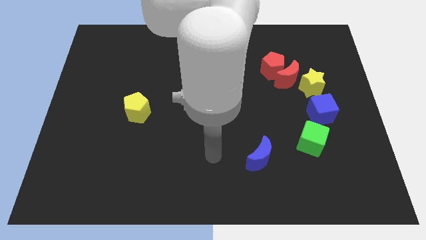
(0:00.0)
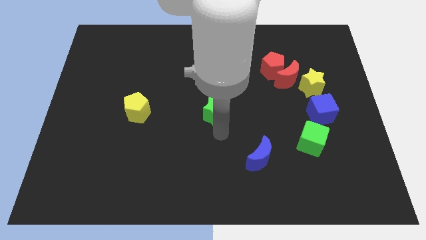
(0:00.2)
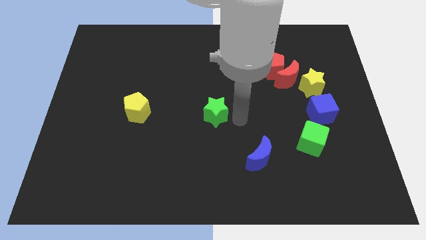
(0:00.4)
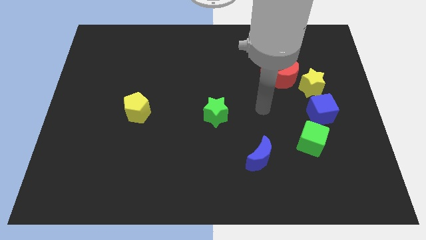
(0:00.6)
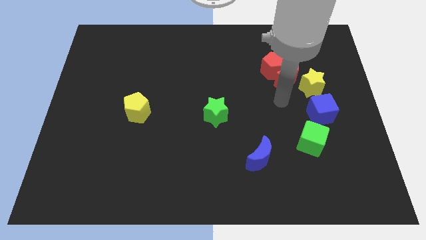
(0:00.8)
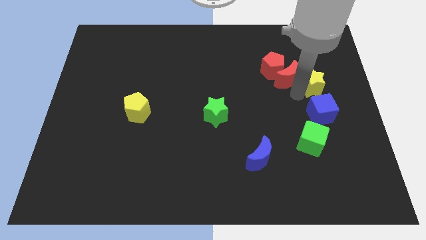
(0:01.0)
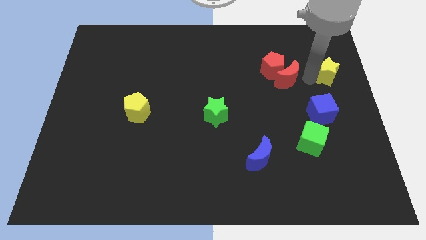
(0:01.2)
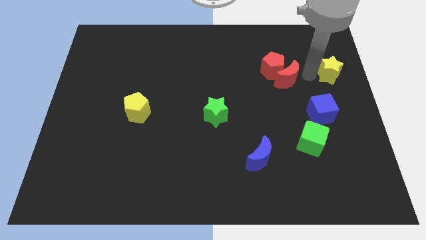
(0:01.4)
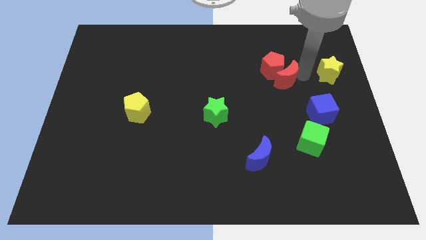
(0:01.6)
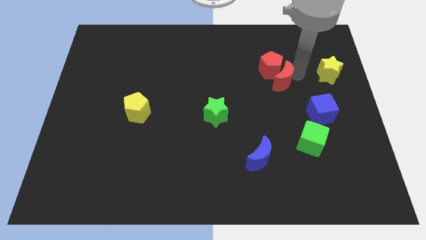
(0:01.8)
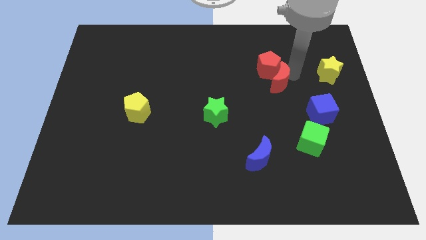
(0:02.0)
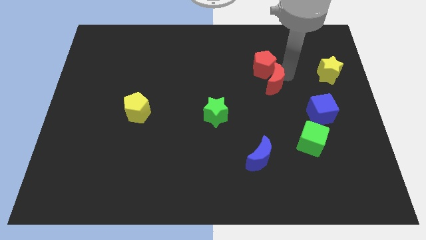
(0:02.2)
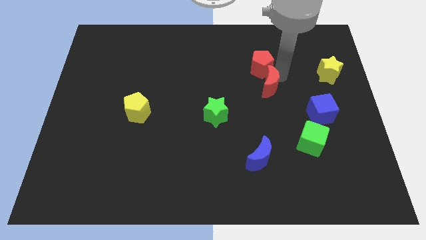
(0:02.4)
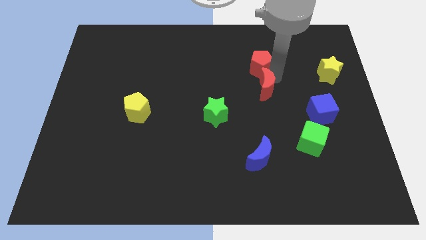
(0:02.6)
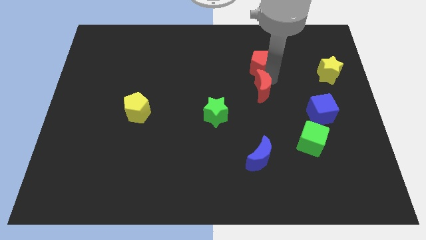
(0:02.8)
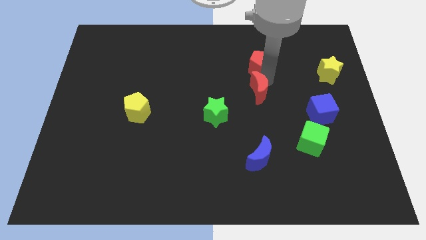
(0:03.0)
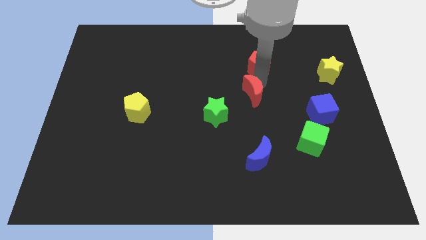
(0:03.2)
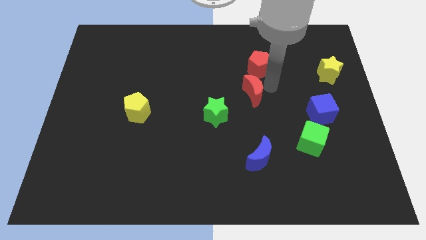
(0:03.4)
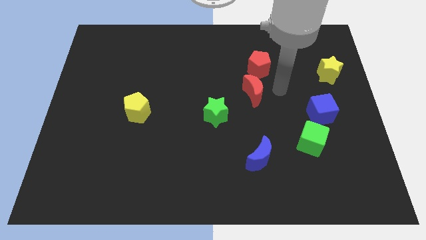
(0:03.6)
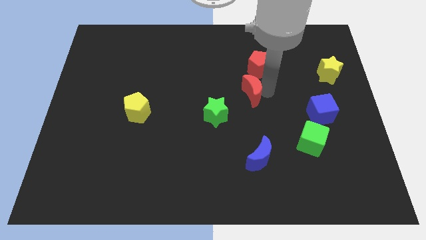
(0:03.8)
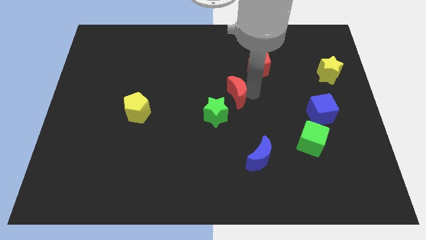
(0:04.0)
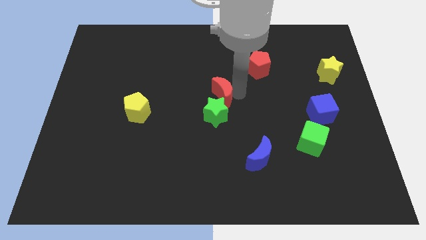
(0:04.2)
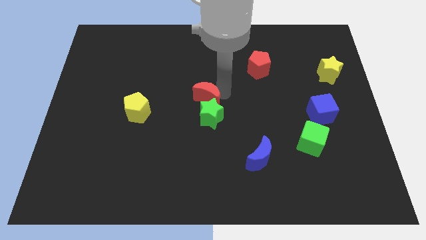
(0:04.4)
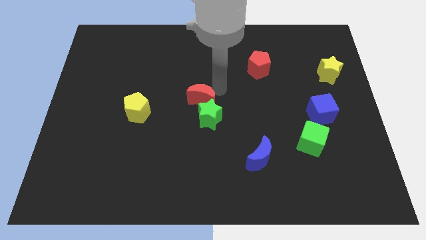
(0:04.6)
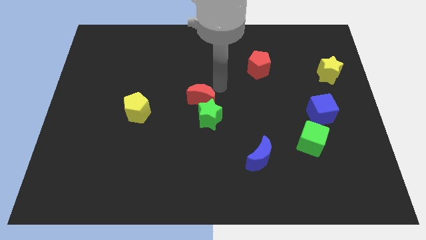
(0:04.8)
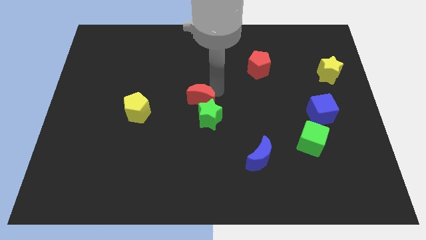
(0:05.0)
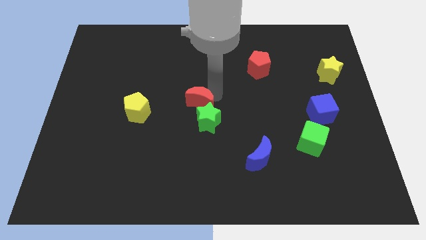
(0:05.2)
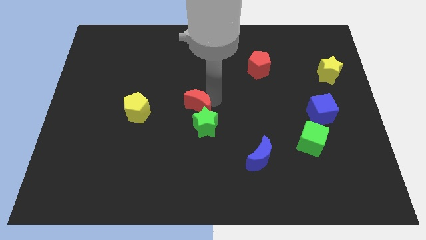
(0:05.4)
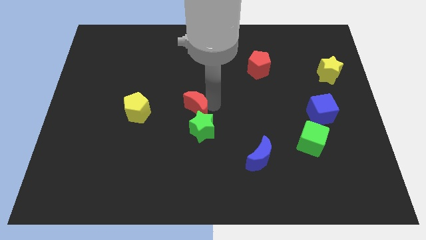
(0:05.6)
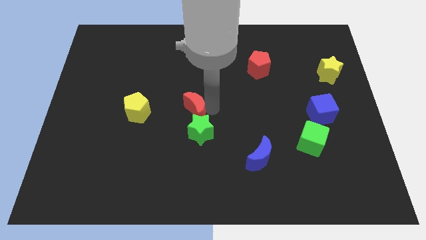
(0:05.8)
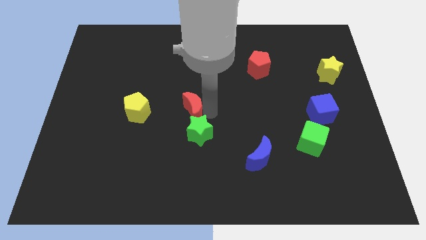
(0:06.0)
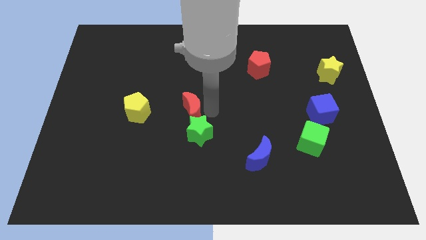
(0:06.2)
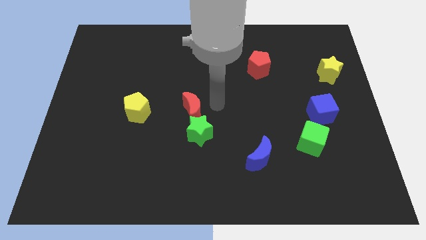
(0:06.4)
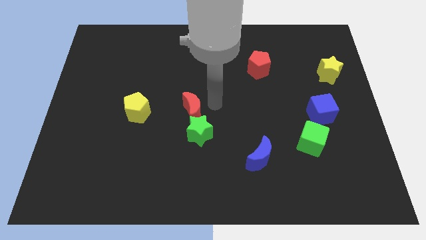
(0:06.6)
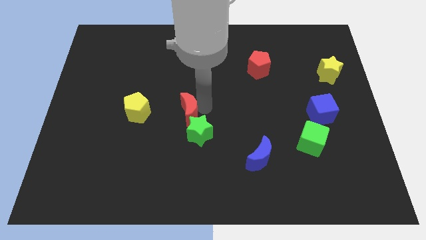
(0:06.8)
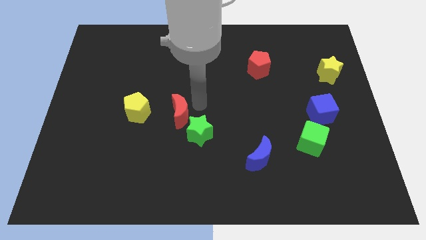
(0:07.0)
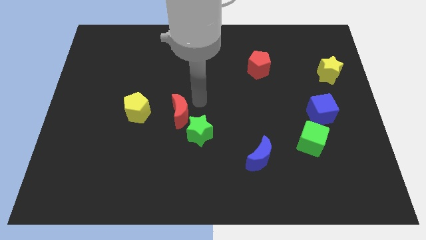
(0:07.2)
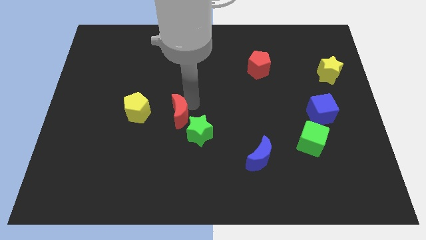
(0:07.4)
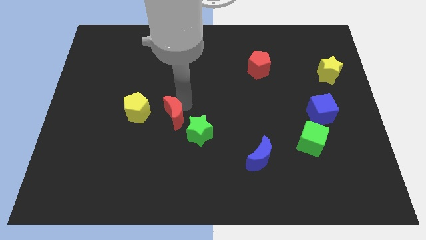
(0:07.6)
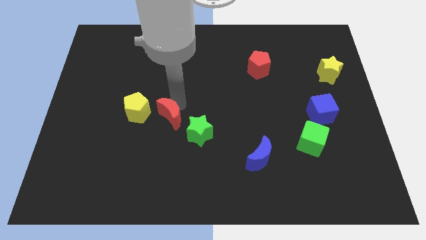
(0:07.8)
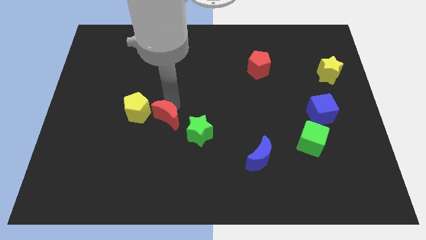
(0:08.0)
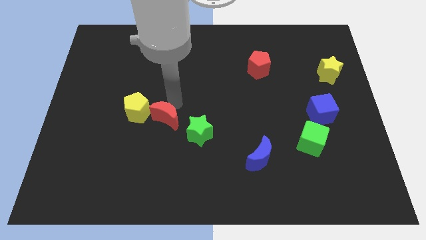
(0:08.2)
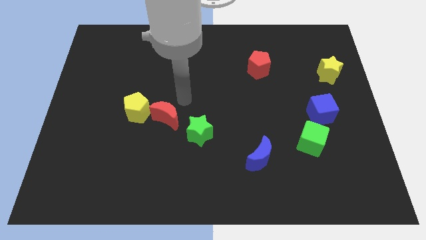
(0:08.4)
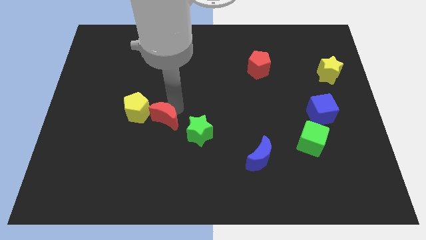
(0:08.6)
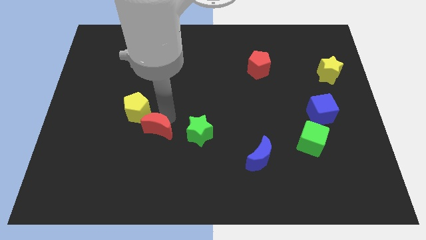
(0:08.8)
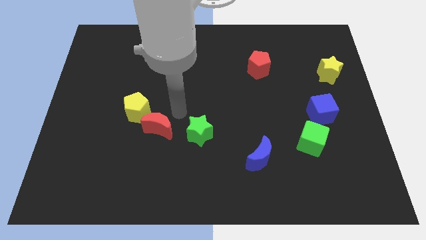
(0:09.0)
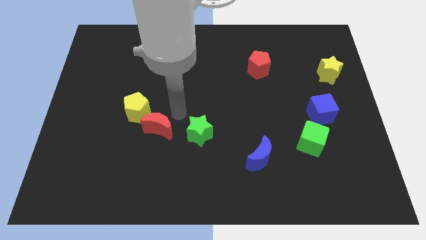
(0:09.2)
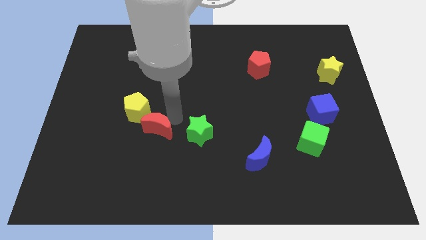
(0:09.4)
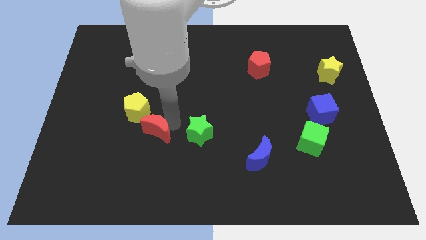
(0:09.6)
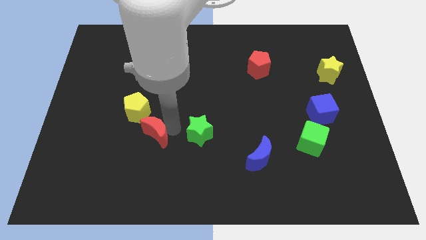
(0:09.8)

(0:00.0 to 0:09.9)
put the red moon to the bottom side of the yellow pentagon

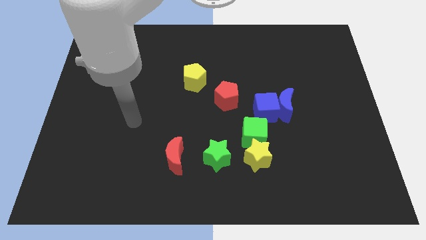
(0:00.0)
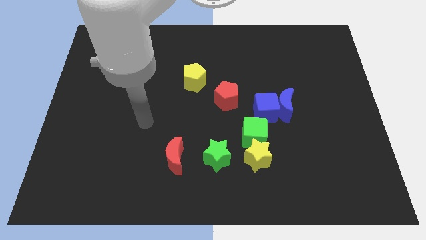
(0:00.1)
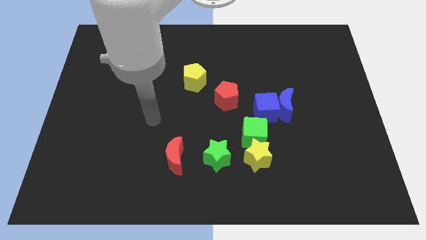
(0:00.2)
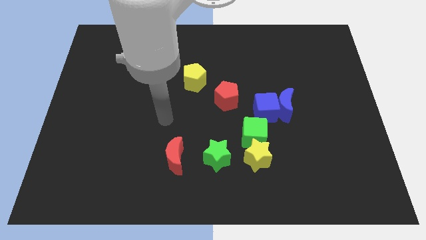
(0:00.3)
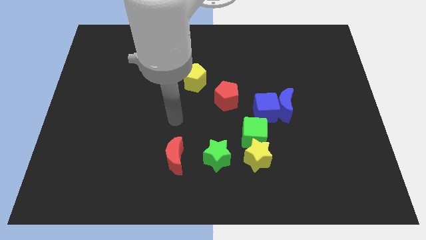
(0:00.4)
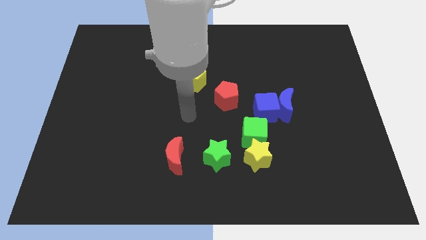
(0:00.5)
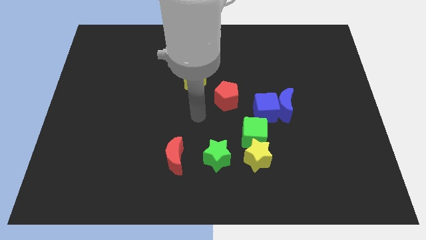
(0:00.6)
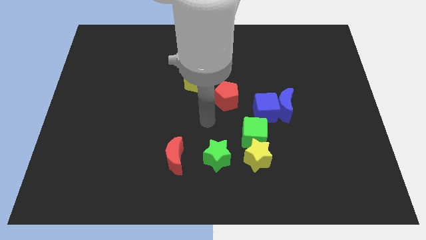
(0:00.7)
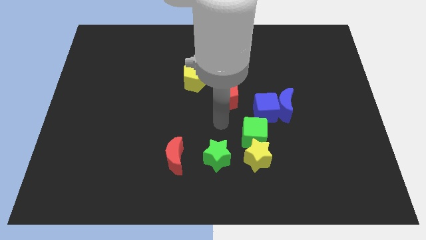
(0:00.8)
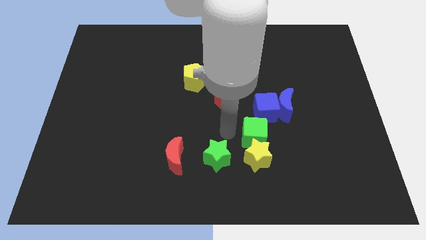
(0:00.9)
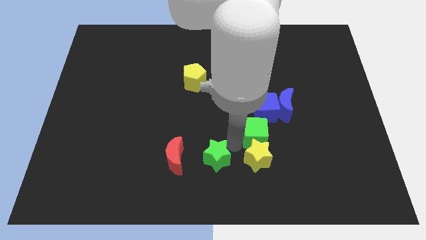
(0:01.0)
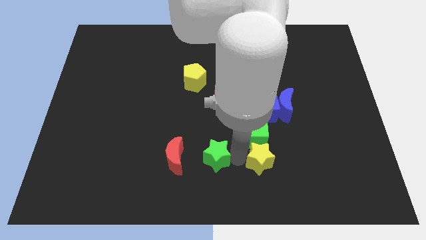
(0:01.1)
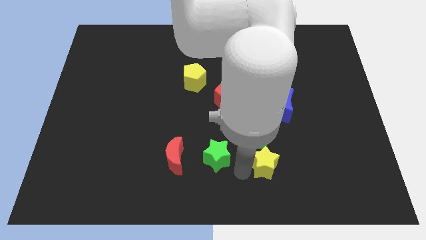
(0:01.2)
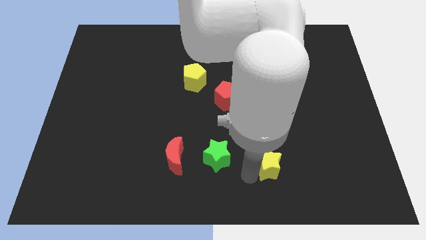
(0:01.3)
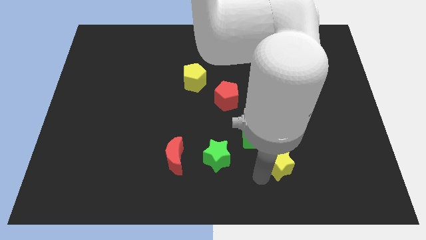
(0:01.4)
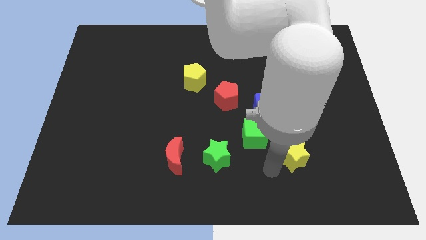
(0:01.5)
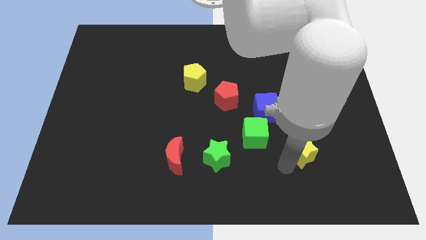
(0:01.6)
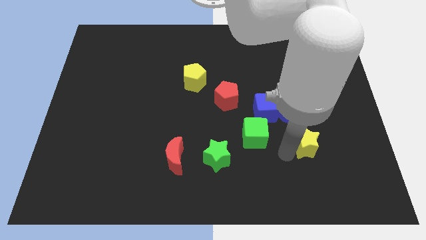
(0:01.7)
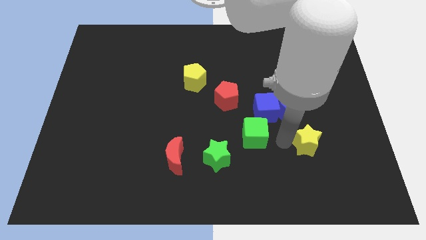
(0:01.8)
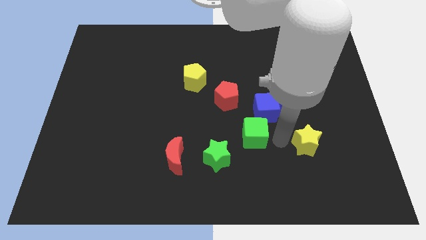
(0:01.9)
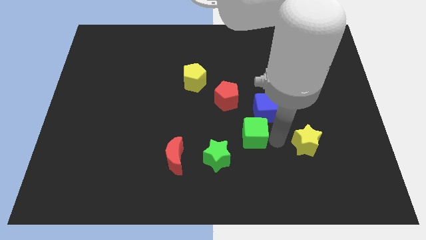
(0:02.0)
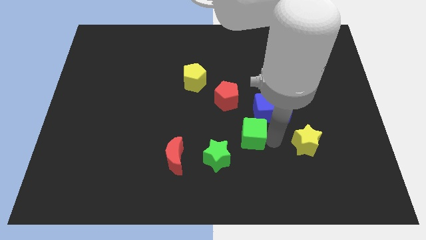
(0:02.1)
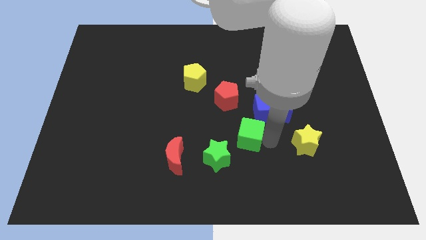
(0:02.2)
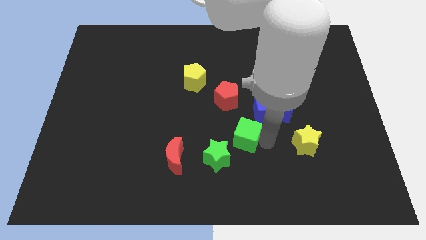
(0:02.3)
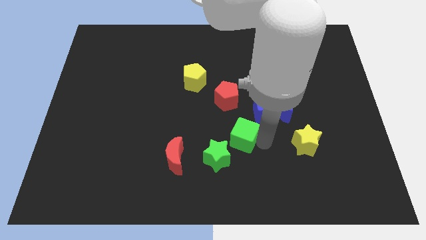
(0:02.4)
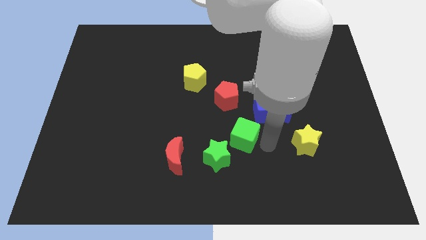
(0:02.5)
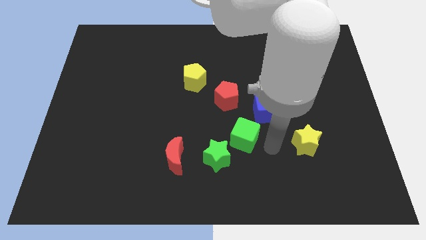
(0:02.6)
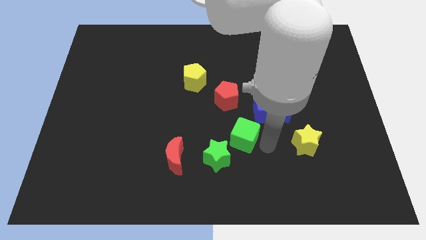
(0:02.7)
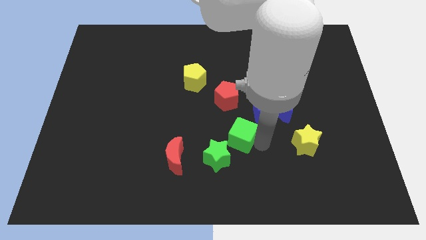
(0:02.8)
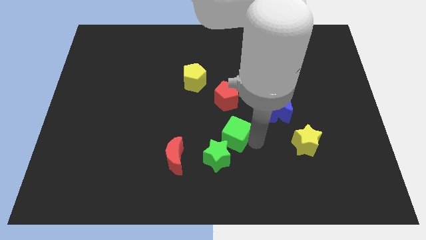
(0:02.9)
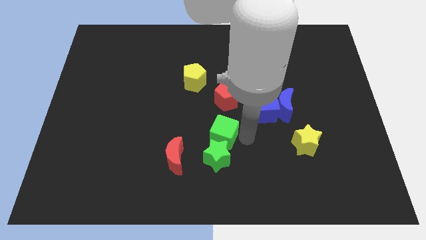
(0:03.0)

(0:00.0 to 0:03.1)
slide the green cube diagonally up and to the right of the red moon

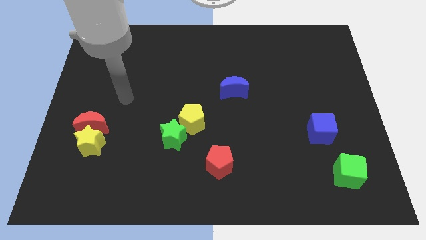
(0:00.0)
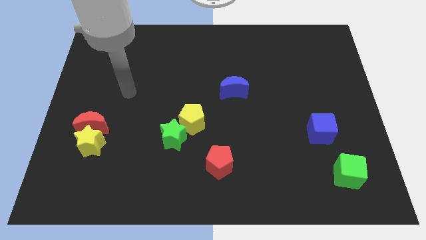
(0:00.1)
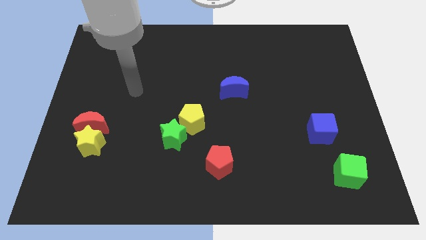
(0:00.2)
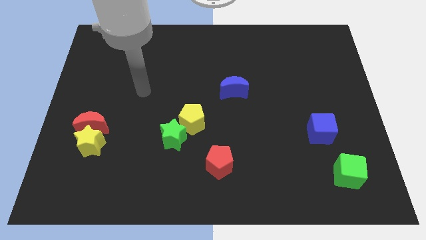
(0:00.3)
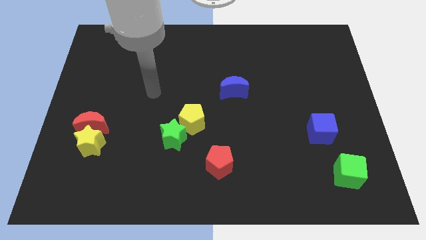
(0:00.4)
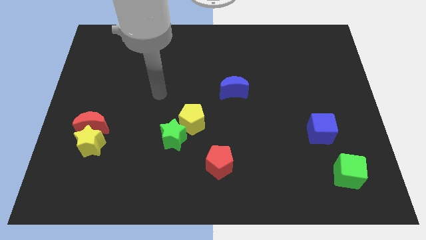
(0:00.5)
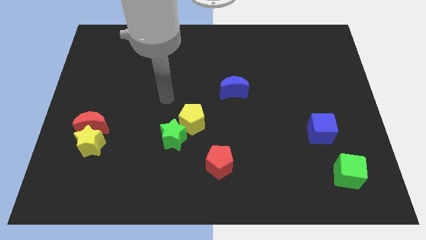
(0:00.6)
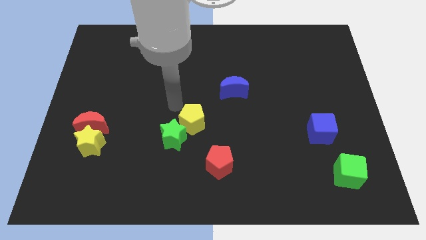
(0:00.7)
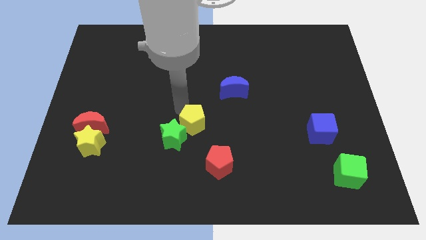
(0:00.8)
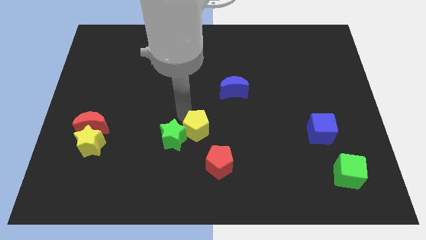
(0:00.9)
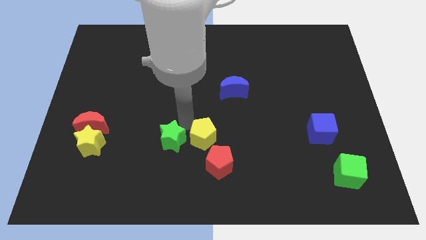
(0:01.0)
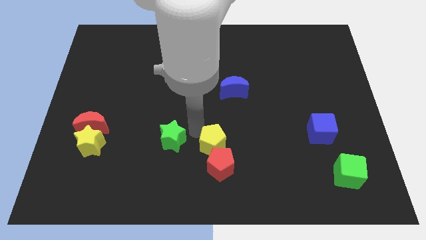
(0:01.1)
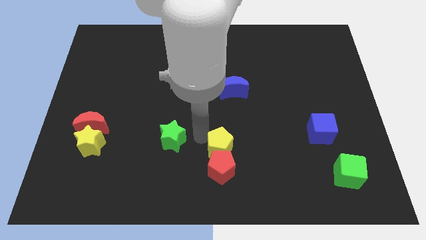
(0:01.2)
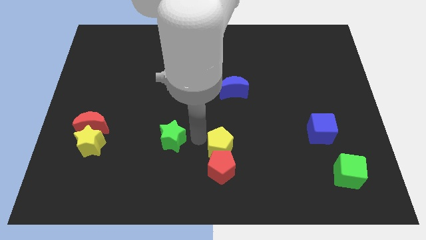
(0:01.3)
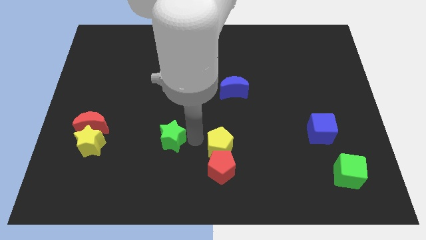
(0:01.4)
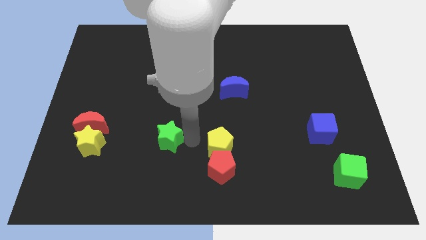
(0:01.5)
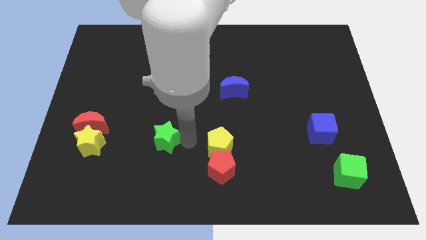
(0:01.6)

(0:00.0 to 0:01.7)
slide the green star to the right of the yellow star
